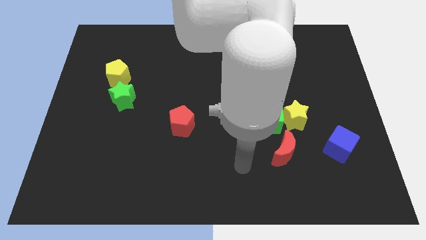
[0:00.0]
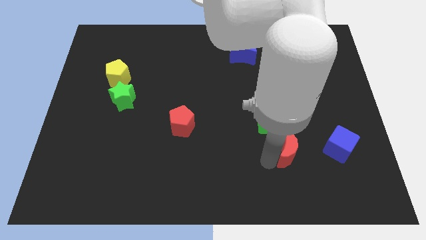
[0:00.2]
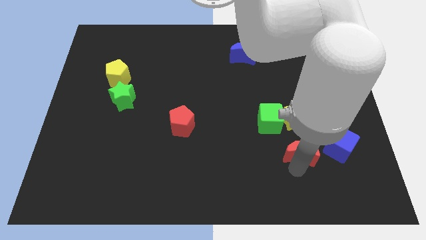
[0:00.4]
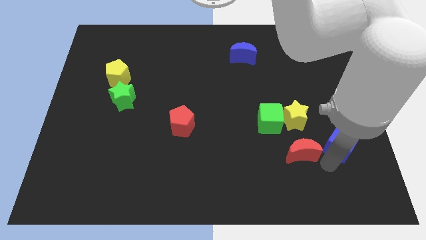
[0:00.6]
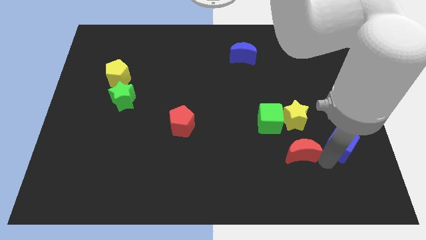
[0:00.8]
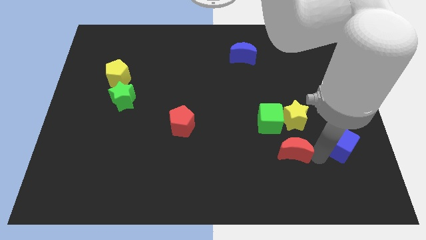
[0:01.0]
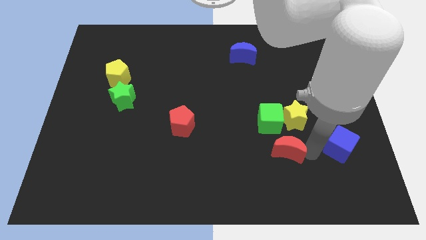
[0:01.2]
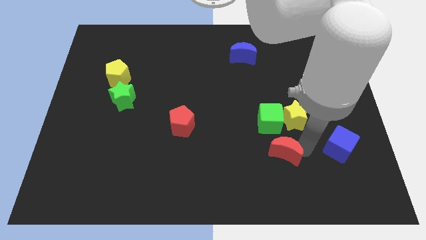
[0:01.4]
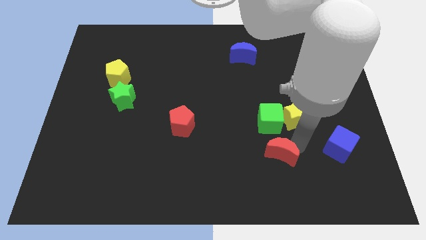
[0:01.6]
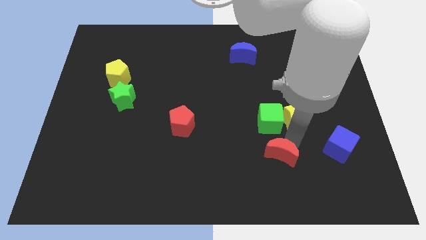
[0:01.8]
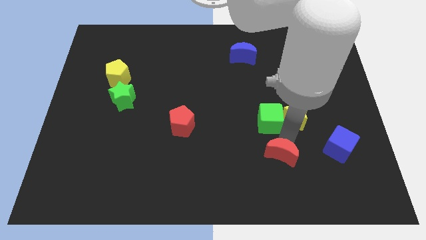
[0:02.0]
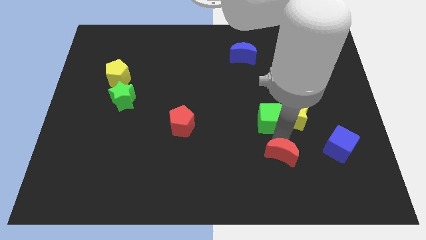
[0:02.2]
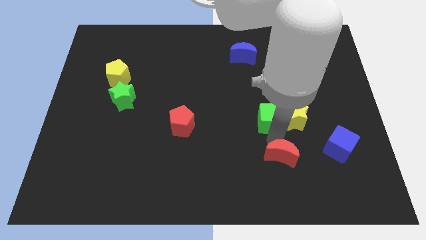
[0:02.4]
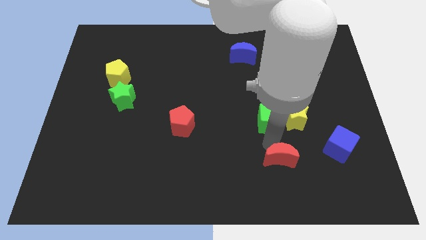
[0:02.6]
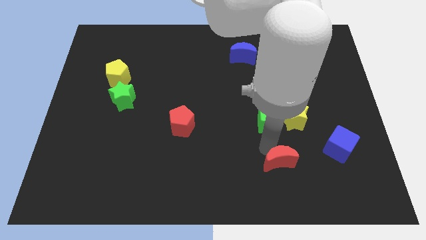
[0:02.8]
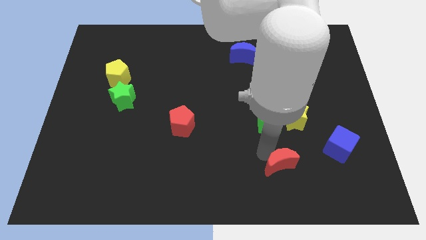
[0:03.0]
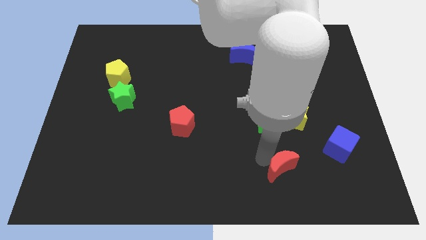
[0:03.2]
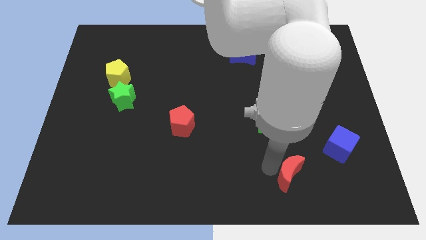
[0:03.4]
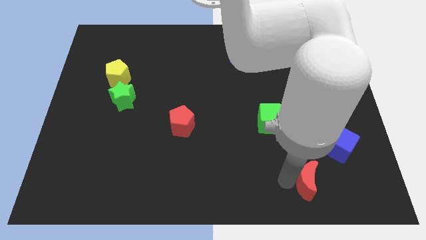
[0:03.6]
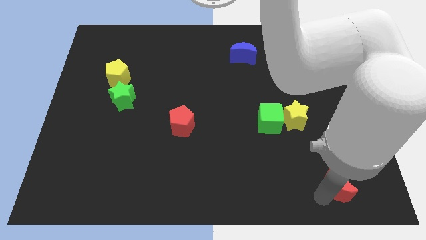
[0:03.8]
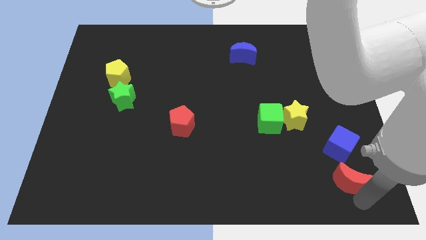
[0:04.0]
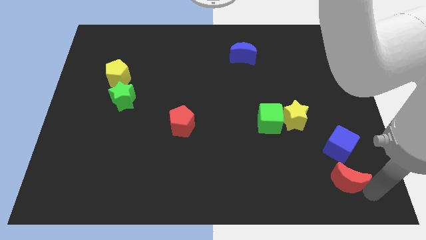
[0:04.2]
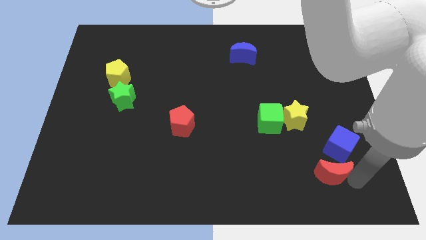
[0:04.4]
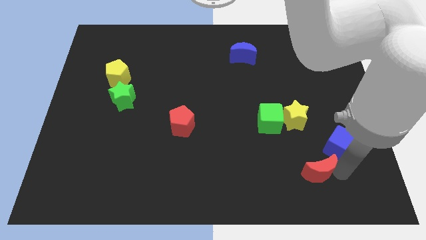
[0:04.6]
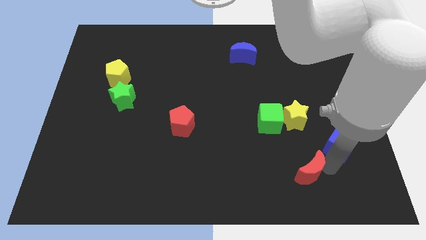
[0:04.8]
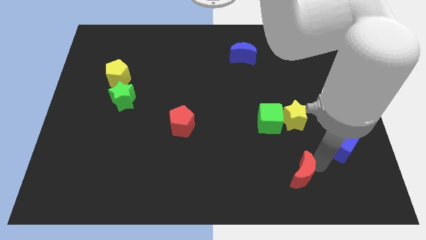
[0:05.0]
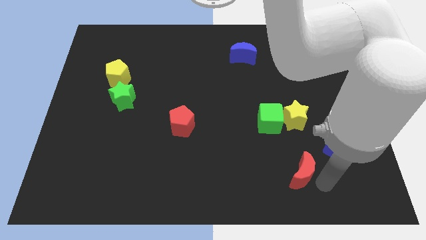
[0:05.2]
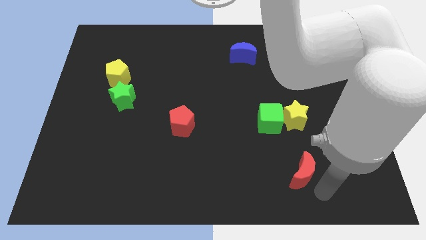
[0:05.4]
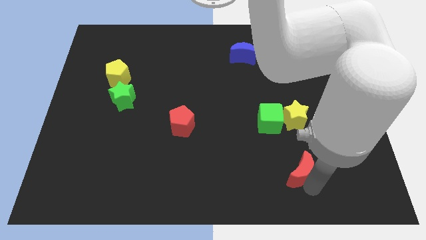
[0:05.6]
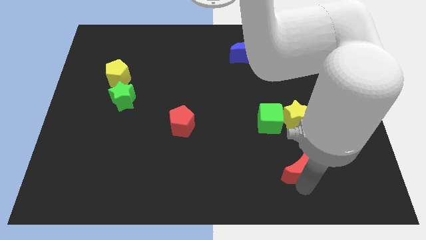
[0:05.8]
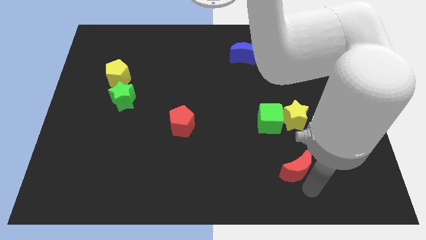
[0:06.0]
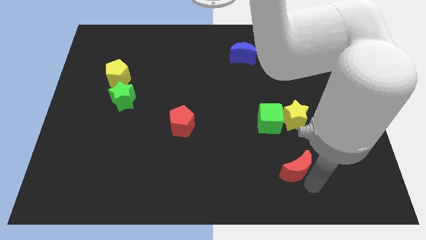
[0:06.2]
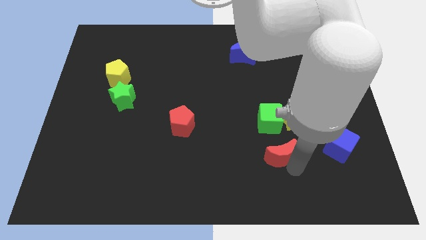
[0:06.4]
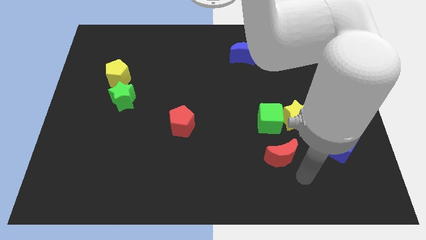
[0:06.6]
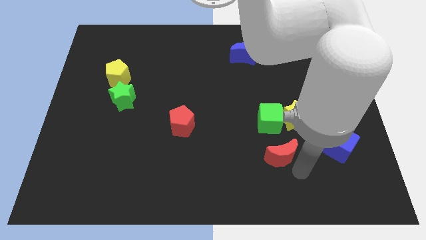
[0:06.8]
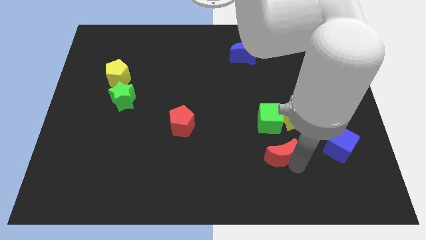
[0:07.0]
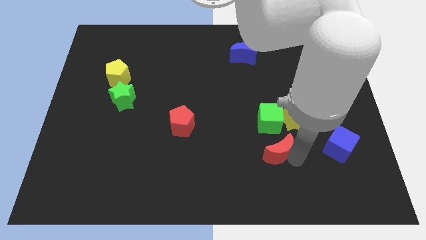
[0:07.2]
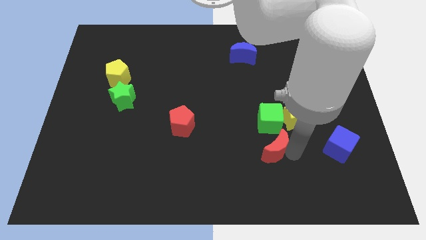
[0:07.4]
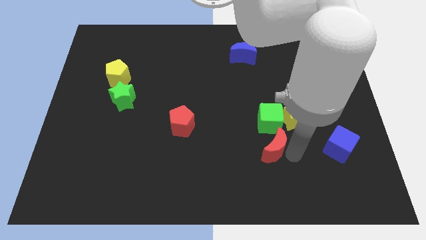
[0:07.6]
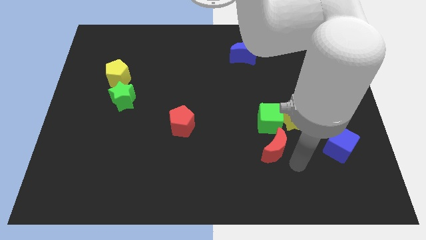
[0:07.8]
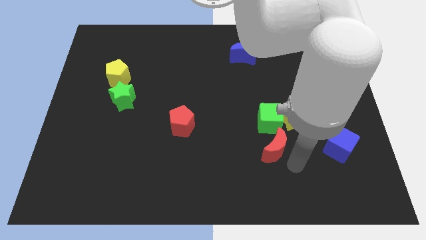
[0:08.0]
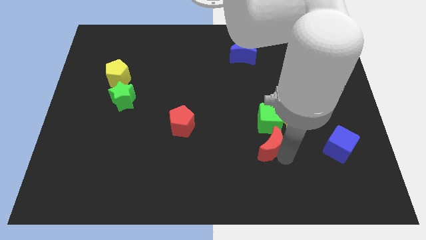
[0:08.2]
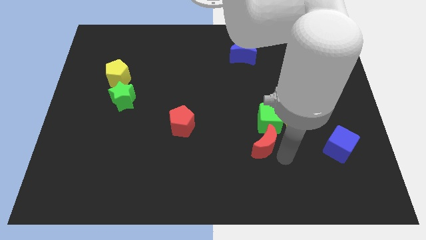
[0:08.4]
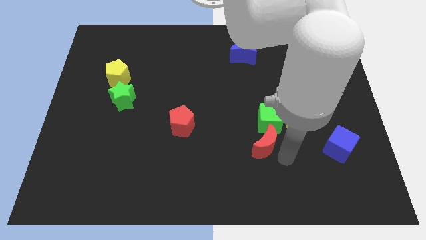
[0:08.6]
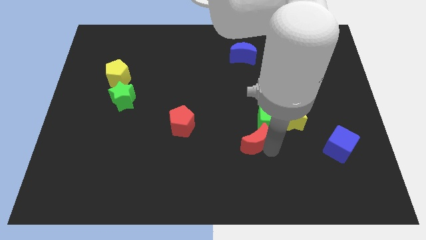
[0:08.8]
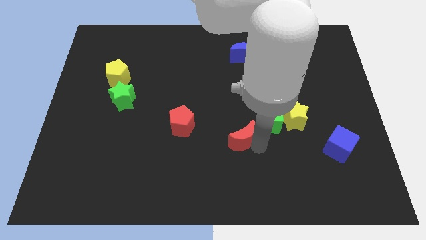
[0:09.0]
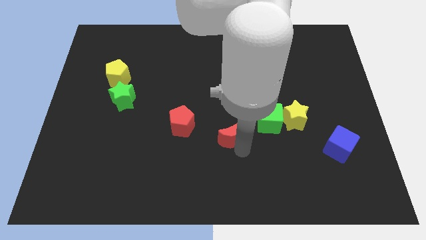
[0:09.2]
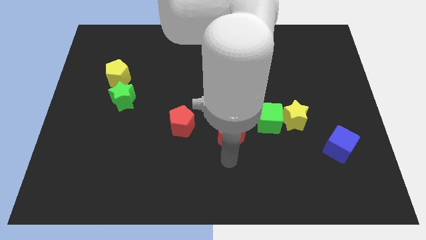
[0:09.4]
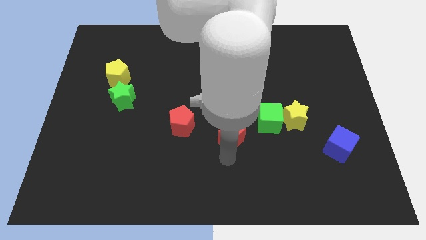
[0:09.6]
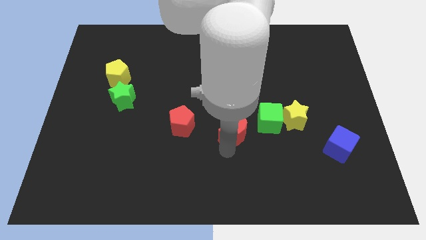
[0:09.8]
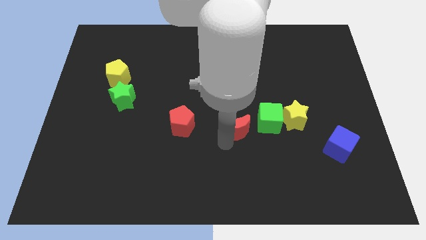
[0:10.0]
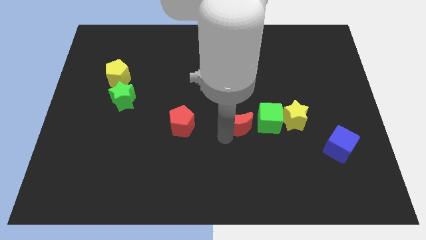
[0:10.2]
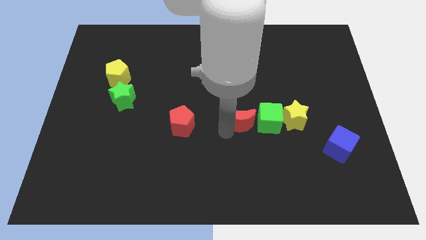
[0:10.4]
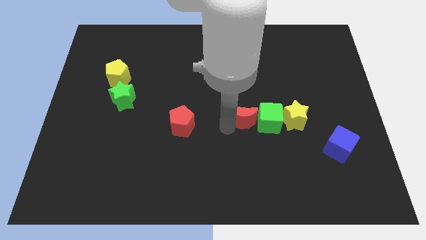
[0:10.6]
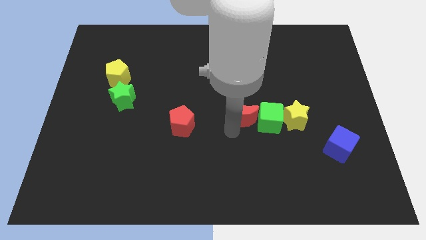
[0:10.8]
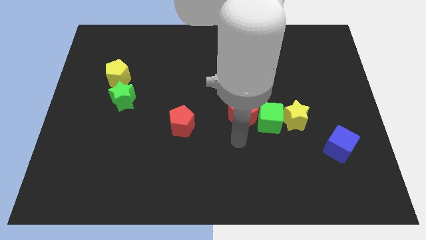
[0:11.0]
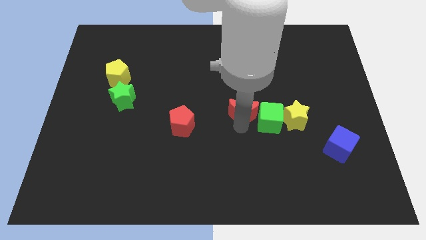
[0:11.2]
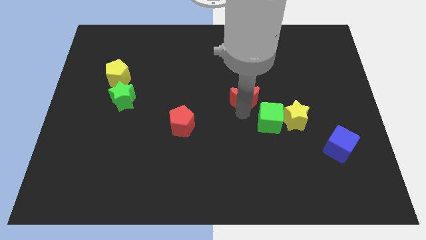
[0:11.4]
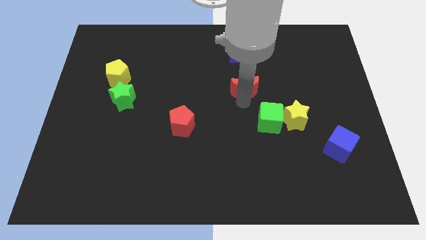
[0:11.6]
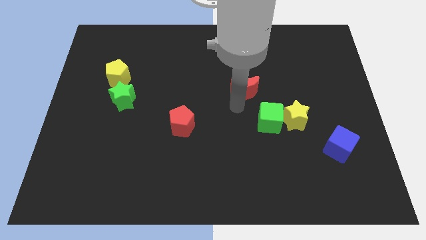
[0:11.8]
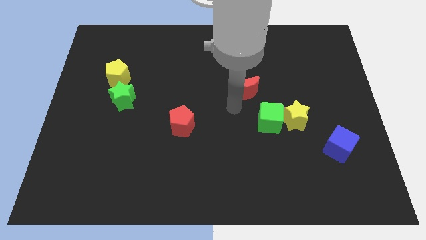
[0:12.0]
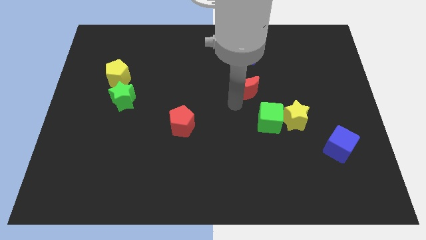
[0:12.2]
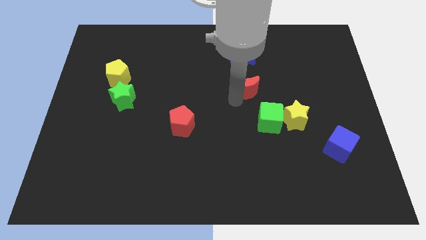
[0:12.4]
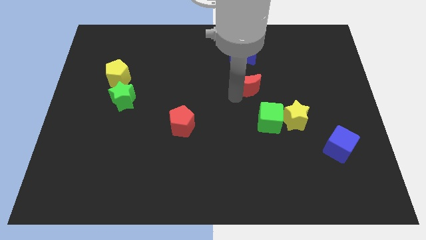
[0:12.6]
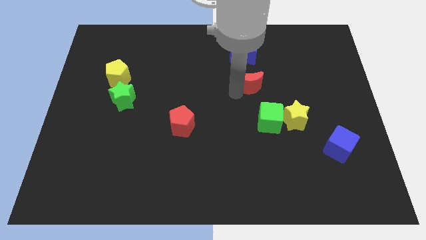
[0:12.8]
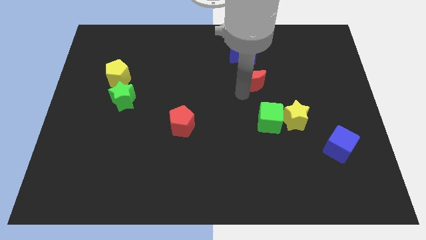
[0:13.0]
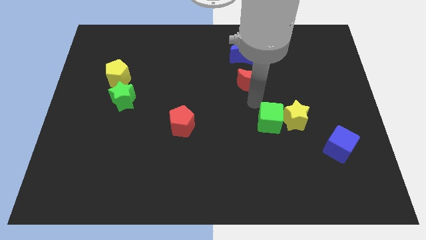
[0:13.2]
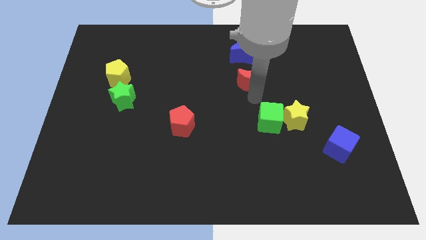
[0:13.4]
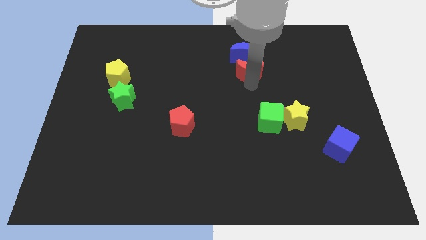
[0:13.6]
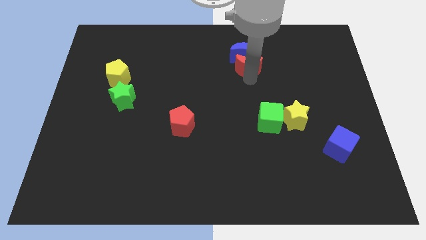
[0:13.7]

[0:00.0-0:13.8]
put the red moon to the blue moon
